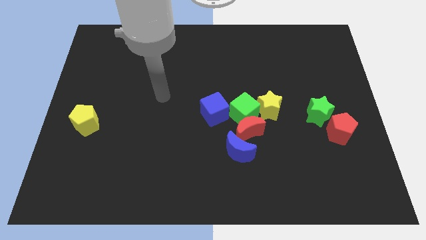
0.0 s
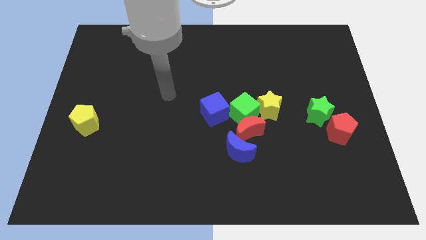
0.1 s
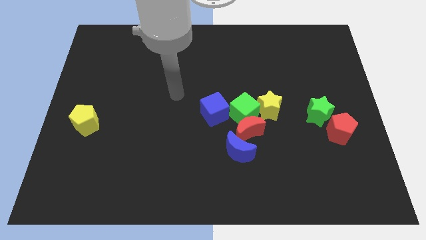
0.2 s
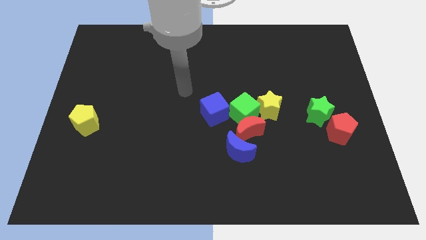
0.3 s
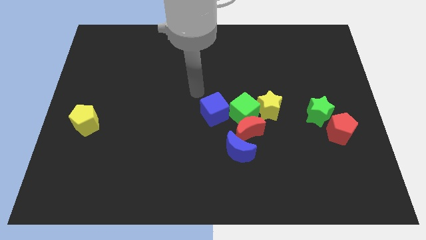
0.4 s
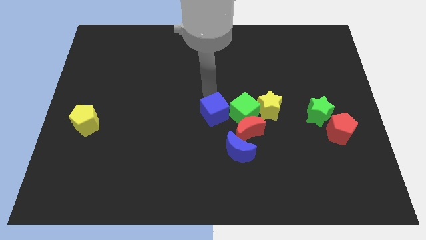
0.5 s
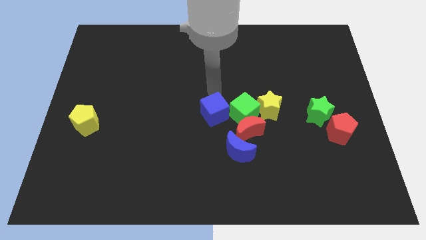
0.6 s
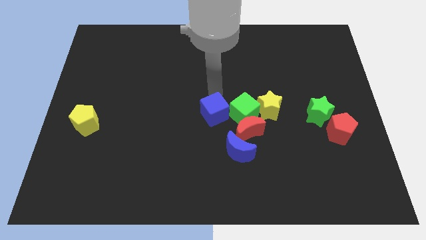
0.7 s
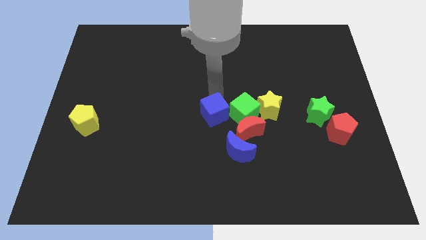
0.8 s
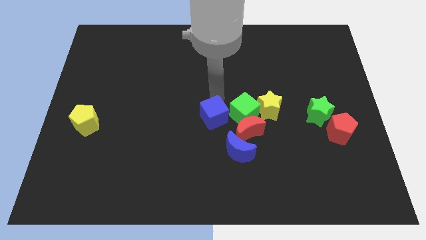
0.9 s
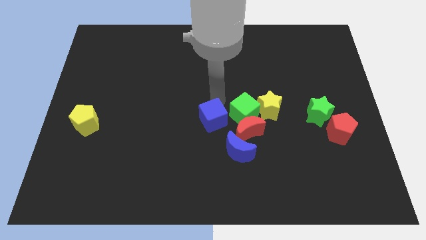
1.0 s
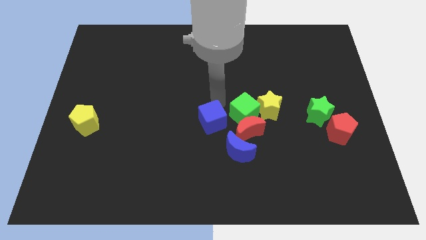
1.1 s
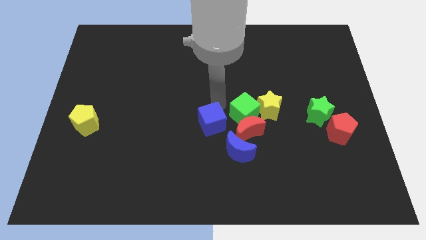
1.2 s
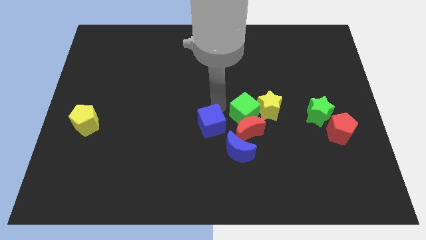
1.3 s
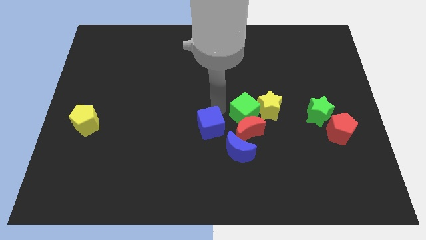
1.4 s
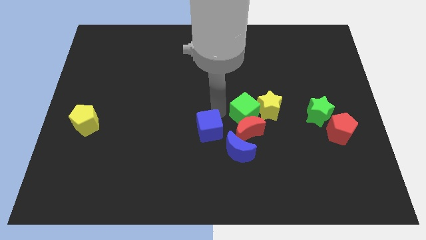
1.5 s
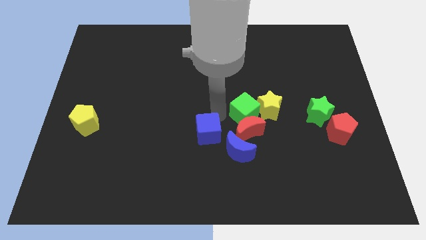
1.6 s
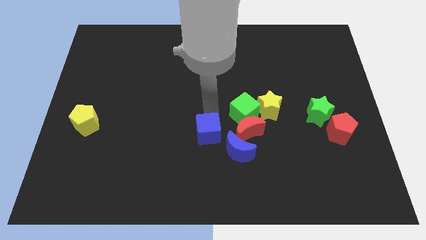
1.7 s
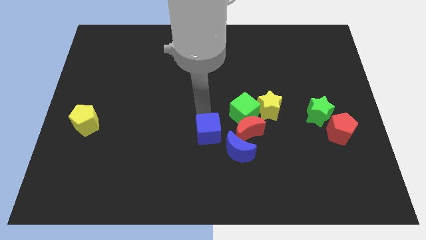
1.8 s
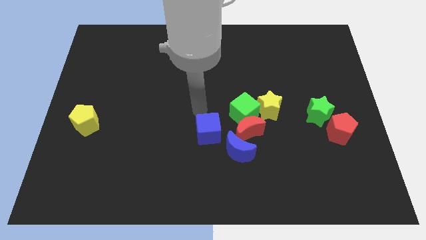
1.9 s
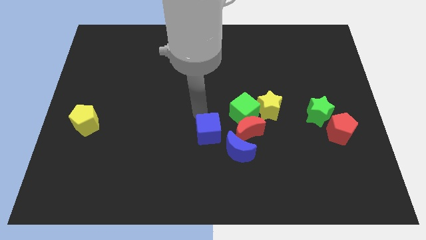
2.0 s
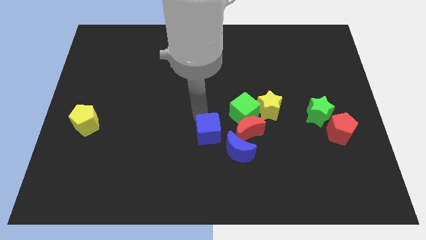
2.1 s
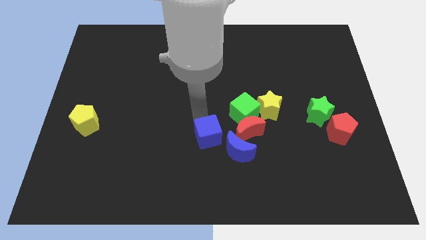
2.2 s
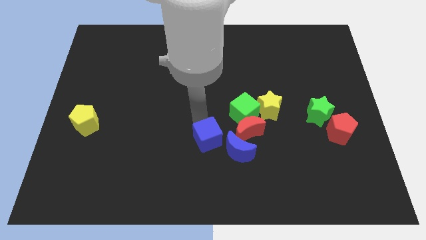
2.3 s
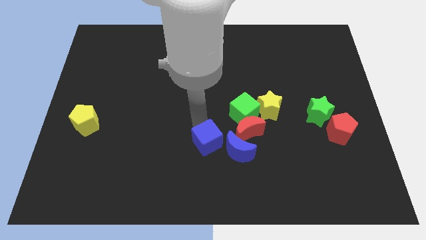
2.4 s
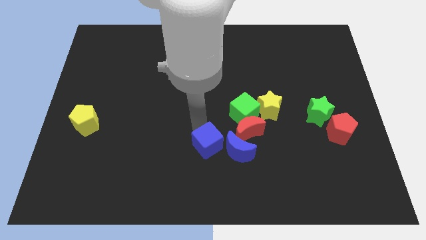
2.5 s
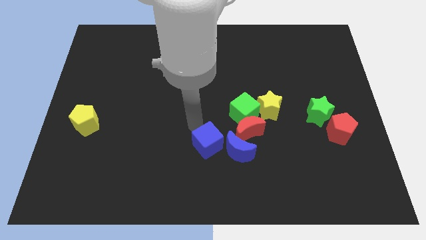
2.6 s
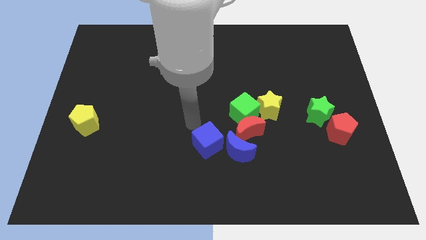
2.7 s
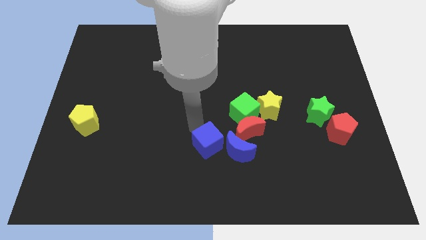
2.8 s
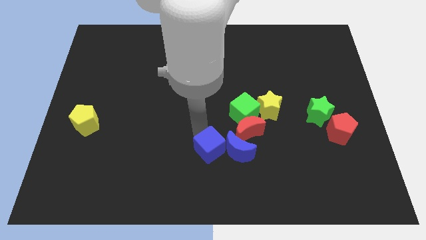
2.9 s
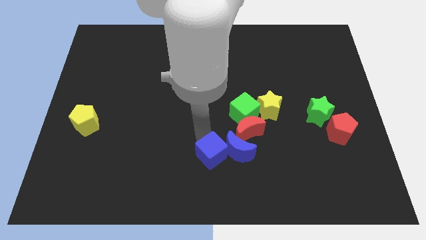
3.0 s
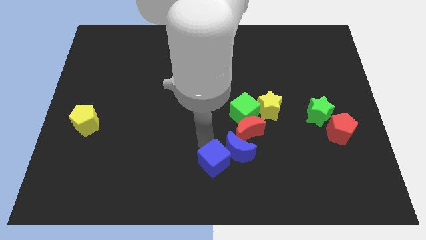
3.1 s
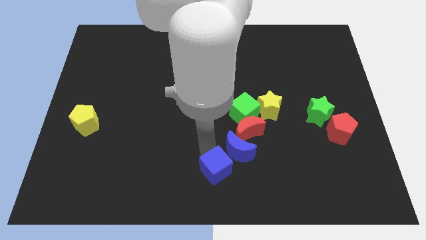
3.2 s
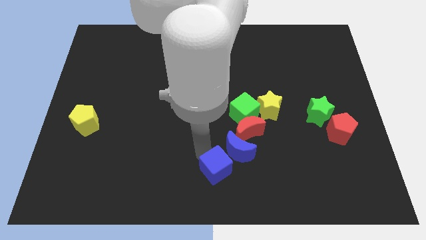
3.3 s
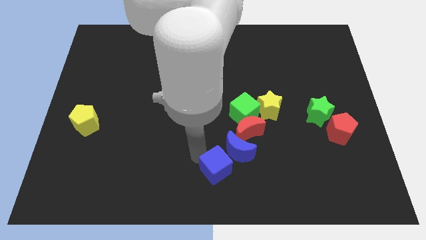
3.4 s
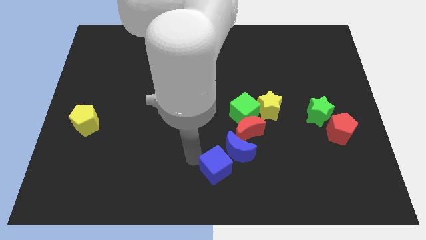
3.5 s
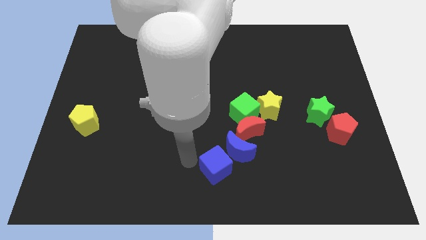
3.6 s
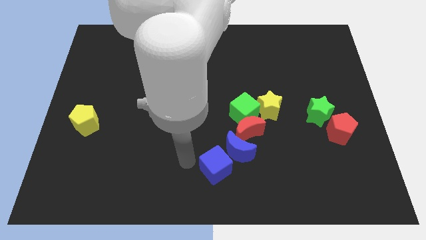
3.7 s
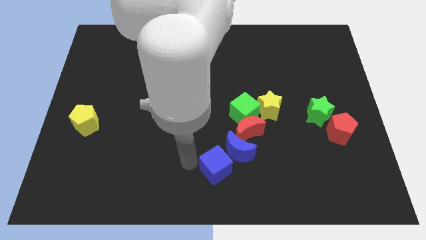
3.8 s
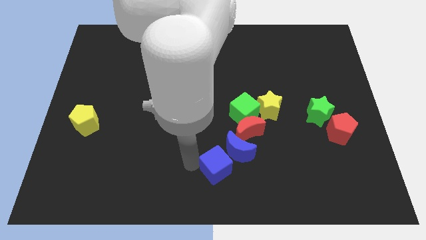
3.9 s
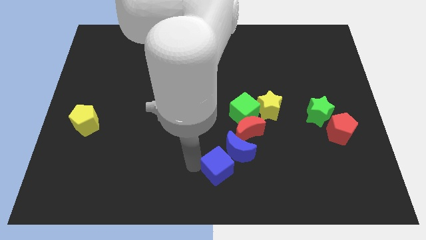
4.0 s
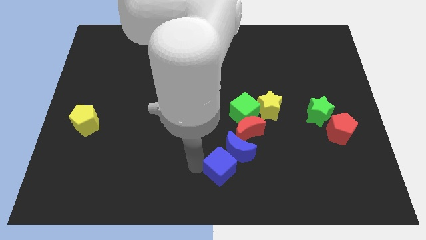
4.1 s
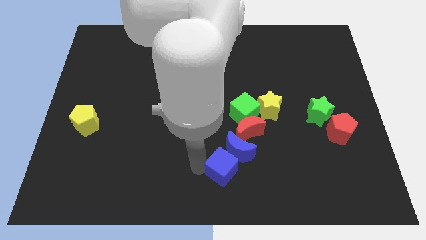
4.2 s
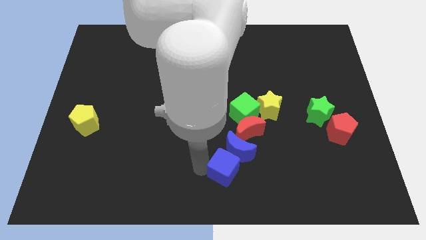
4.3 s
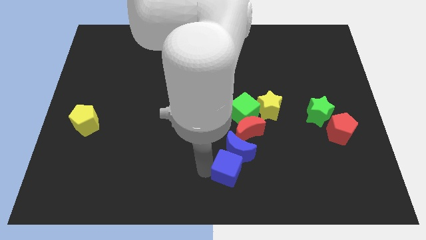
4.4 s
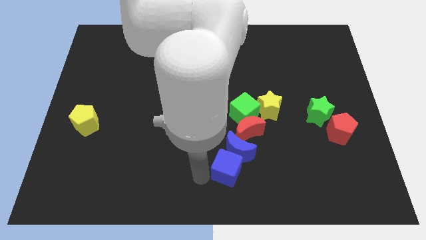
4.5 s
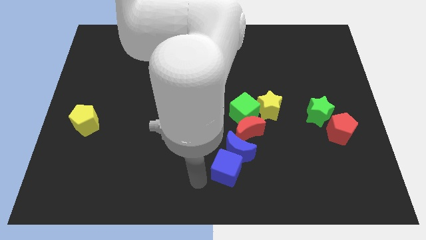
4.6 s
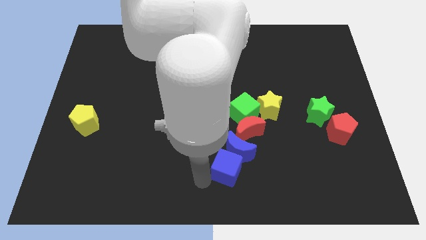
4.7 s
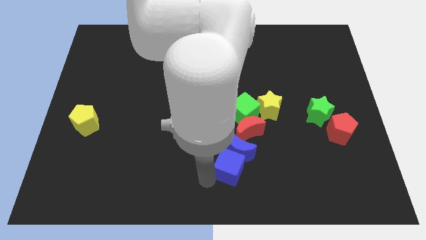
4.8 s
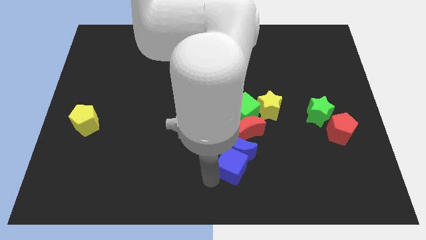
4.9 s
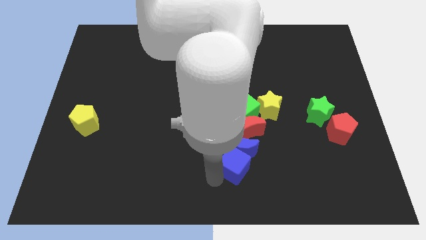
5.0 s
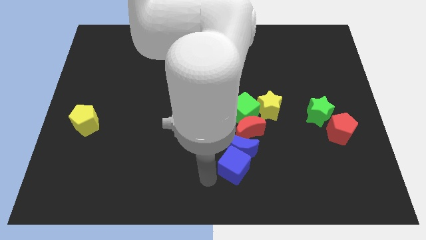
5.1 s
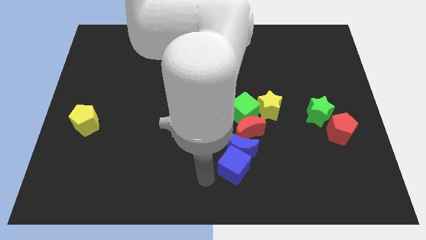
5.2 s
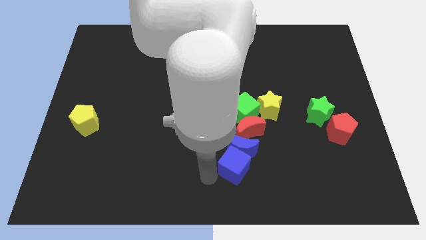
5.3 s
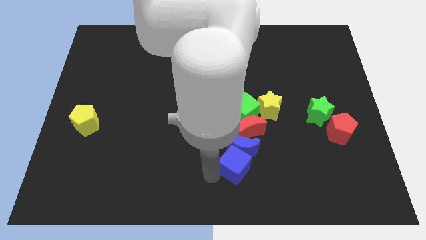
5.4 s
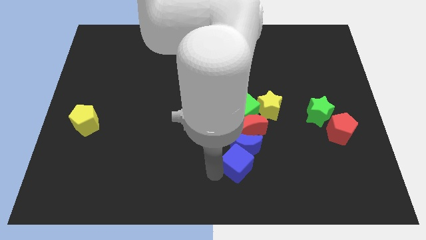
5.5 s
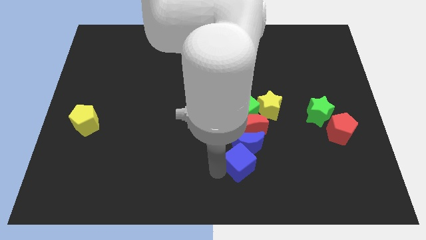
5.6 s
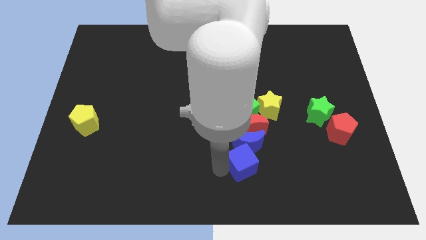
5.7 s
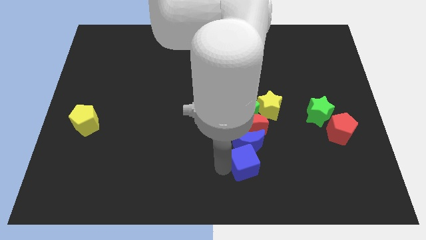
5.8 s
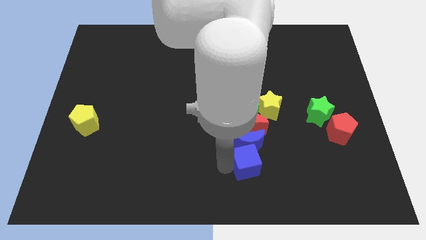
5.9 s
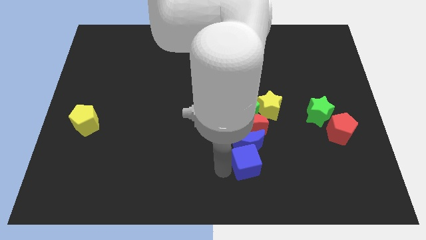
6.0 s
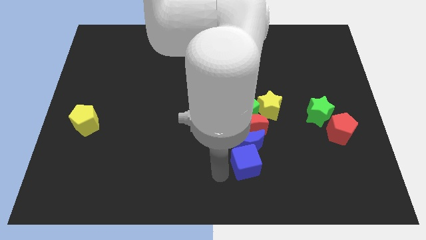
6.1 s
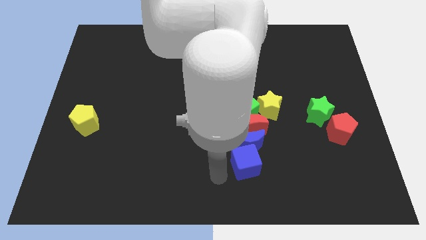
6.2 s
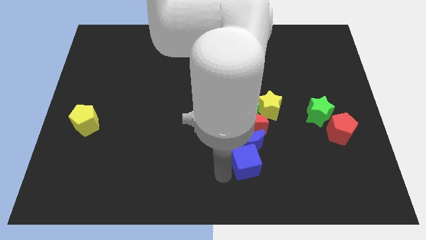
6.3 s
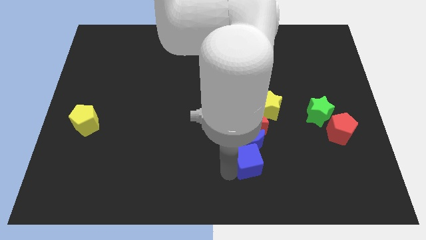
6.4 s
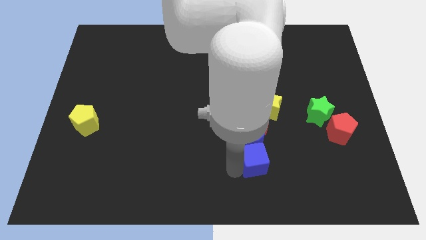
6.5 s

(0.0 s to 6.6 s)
move the blue cube below the yellow star

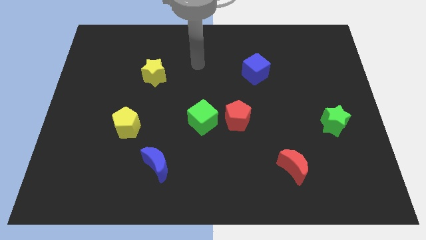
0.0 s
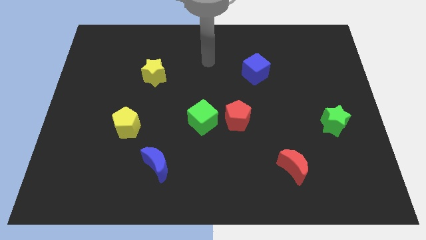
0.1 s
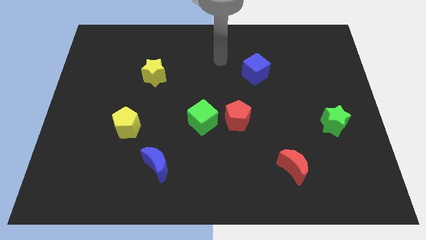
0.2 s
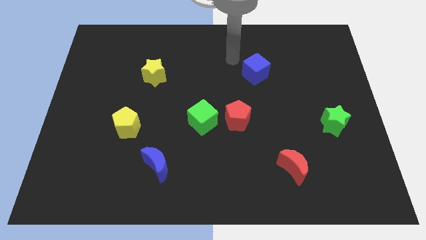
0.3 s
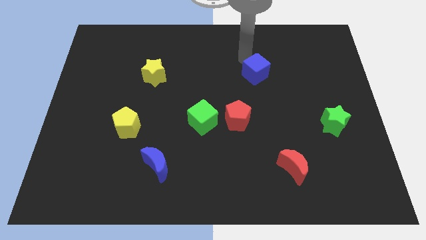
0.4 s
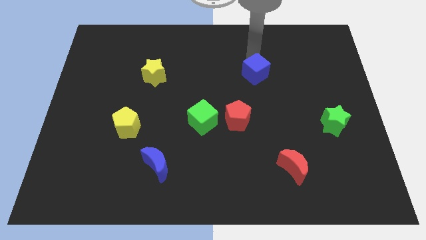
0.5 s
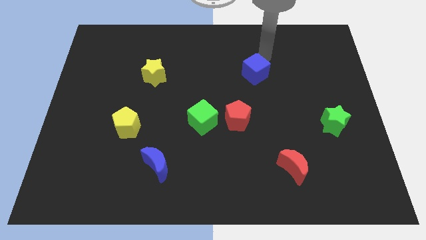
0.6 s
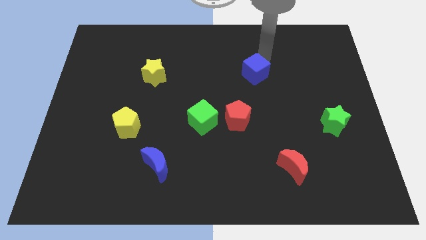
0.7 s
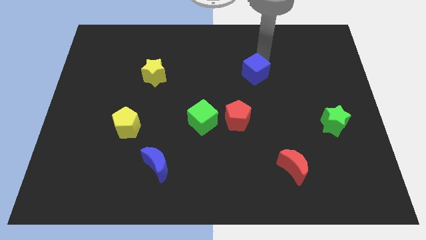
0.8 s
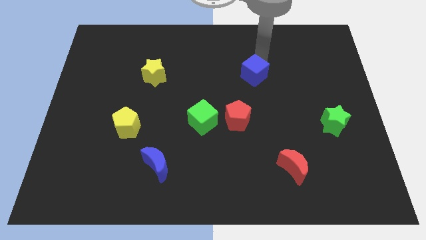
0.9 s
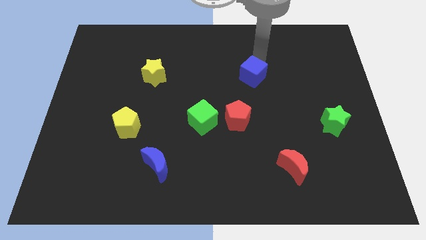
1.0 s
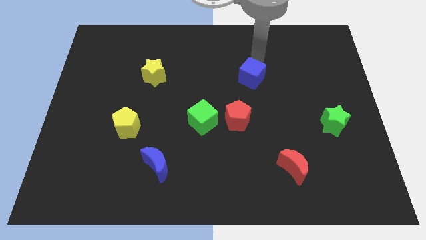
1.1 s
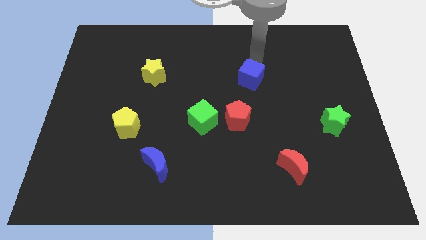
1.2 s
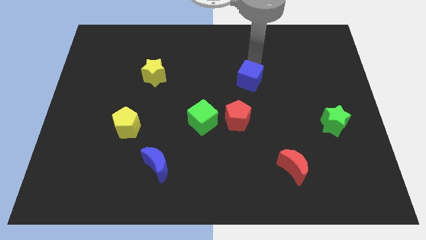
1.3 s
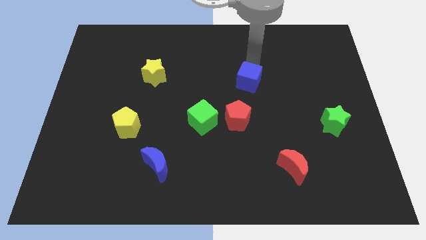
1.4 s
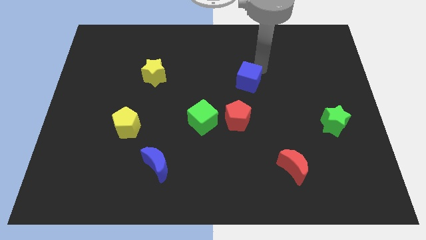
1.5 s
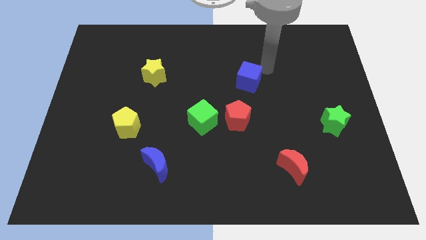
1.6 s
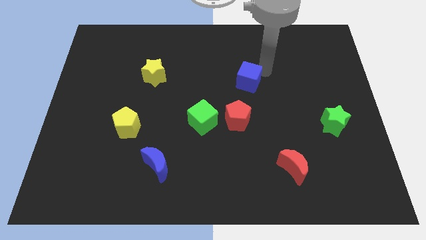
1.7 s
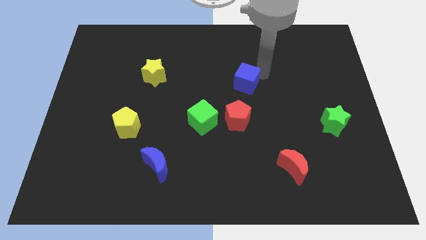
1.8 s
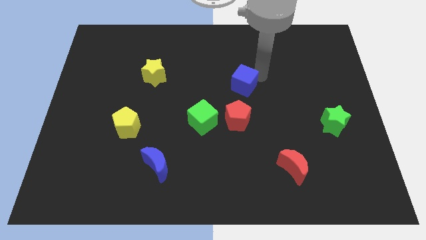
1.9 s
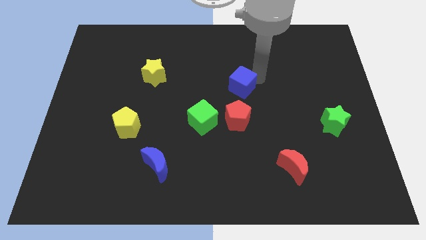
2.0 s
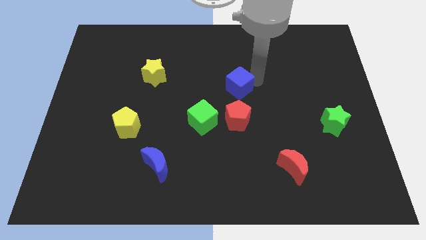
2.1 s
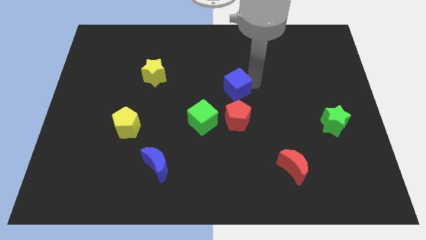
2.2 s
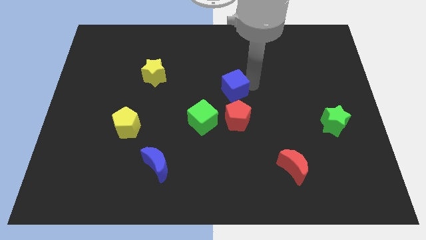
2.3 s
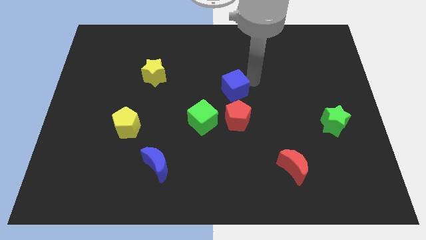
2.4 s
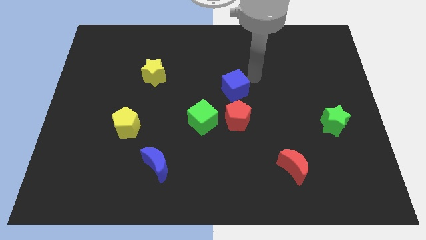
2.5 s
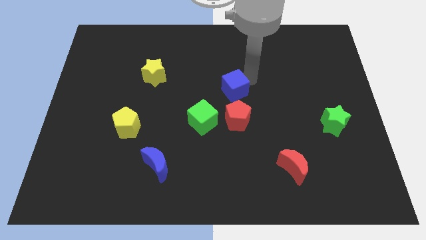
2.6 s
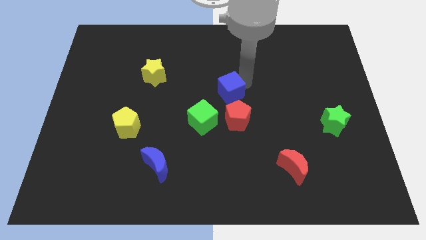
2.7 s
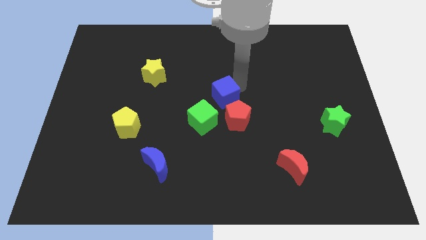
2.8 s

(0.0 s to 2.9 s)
move the blue cube diagonally up and to the left of the red pentagon
